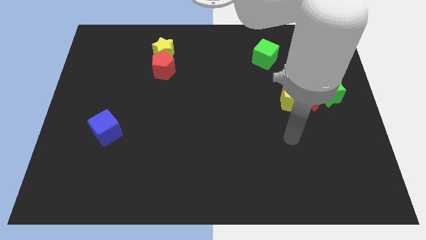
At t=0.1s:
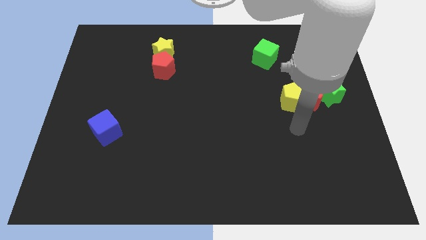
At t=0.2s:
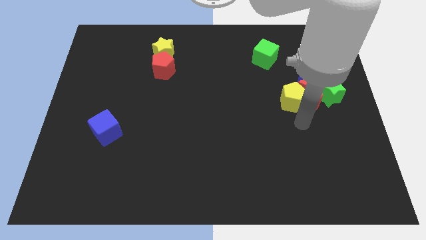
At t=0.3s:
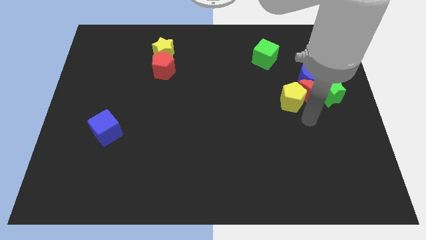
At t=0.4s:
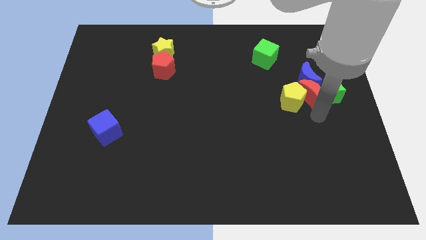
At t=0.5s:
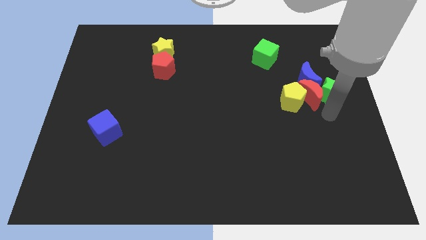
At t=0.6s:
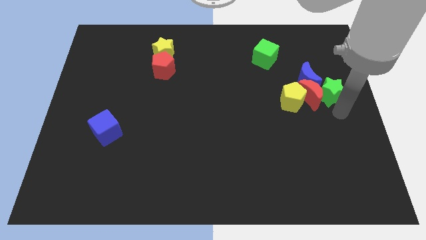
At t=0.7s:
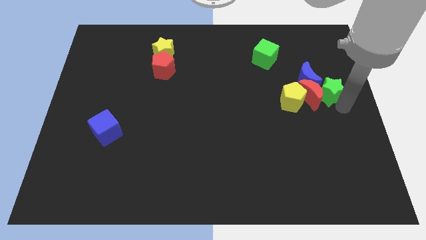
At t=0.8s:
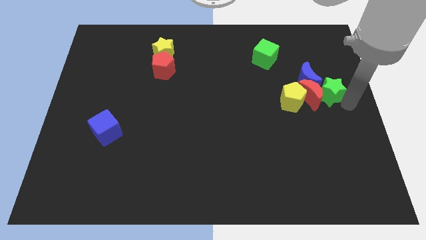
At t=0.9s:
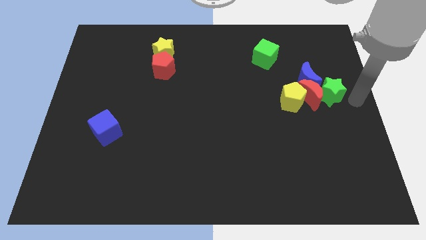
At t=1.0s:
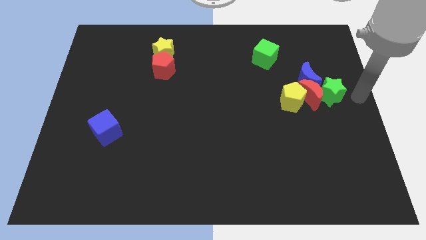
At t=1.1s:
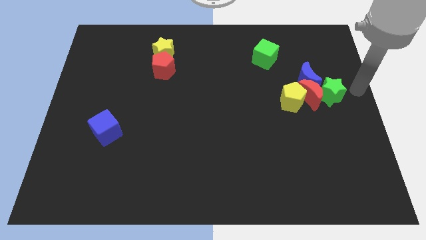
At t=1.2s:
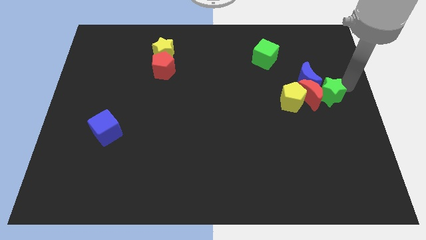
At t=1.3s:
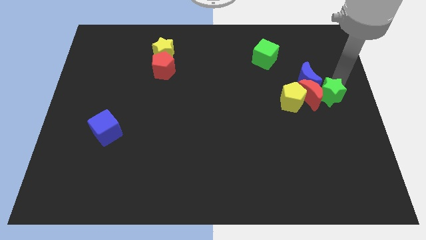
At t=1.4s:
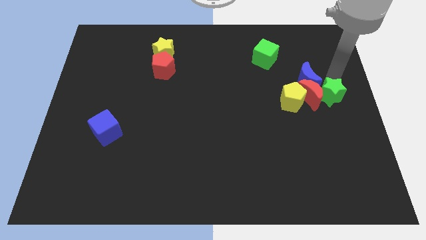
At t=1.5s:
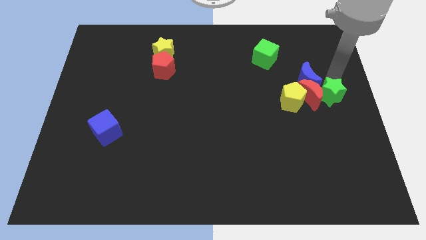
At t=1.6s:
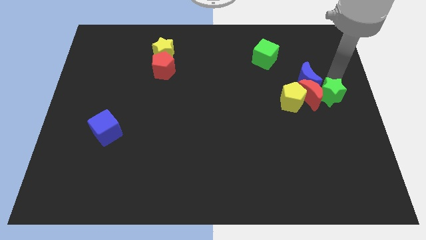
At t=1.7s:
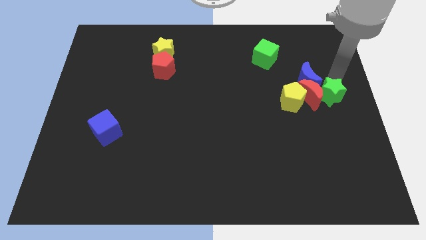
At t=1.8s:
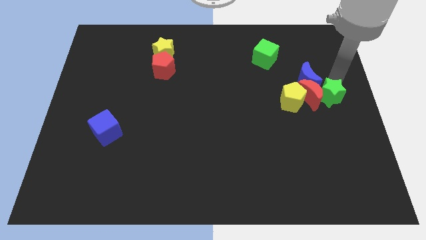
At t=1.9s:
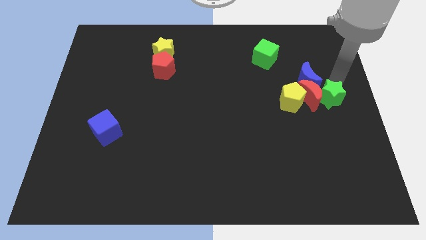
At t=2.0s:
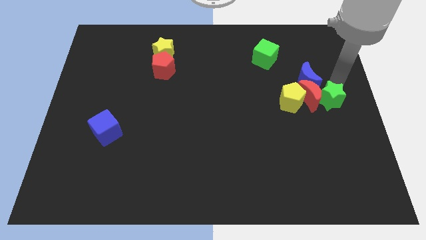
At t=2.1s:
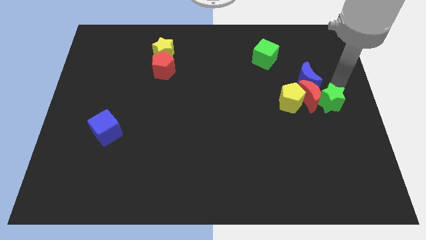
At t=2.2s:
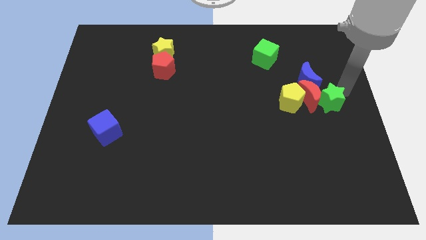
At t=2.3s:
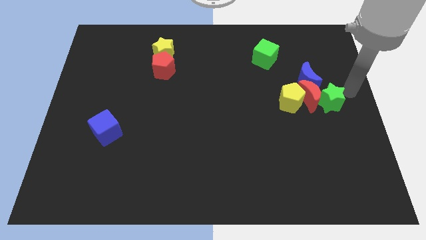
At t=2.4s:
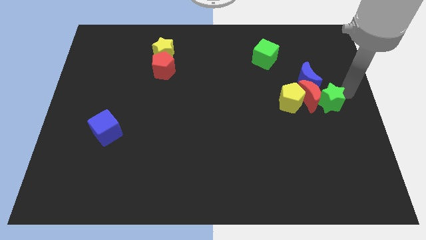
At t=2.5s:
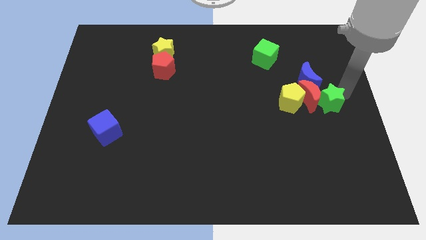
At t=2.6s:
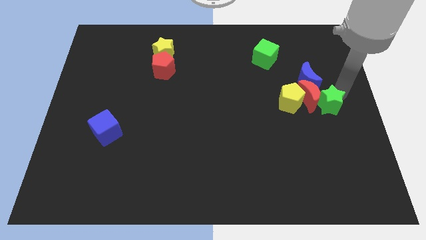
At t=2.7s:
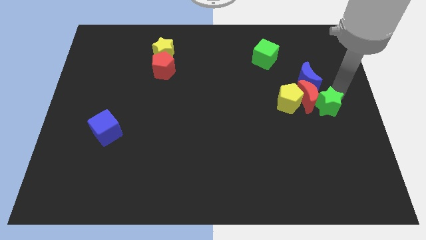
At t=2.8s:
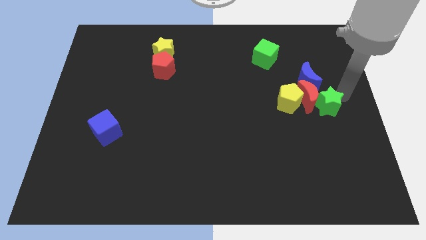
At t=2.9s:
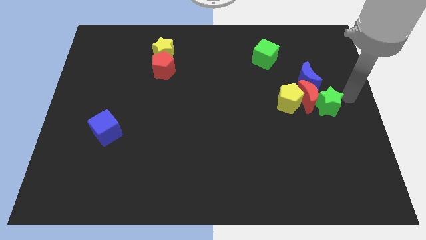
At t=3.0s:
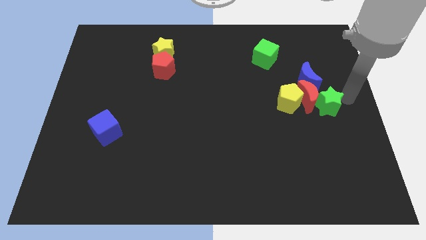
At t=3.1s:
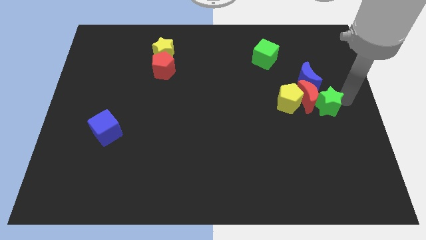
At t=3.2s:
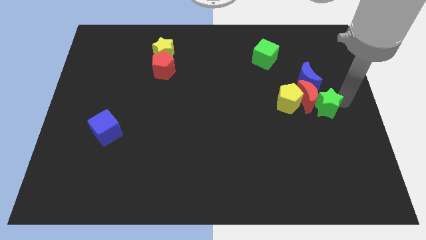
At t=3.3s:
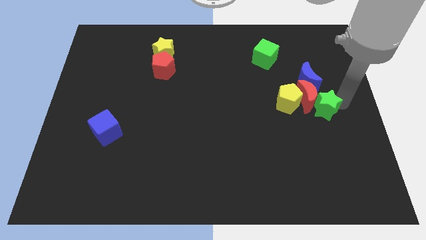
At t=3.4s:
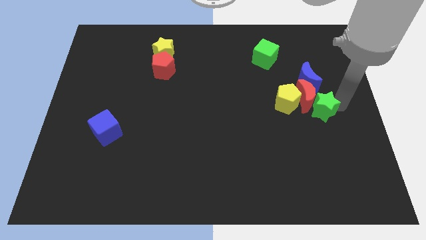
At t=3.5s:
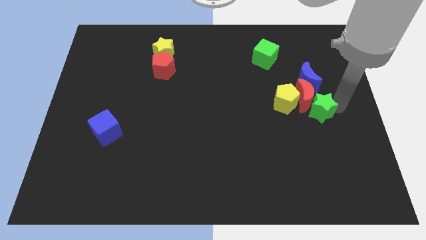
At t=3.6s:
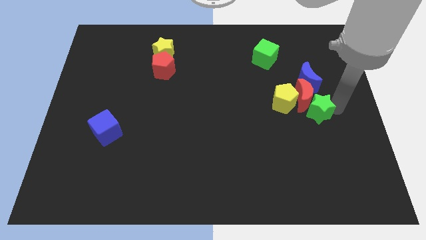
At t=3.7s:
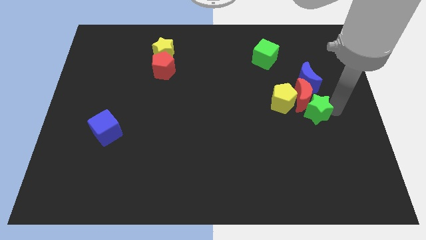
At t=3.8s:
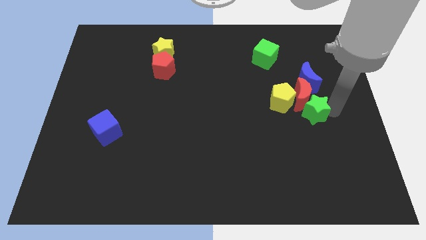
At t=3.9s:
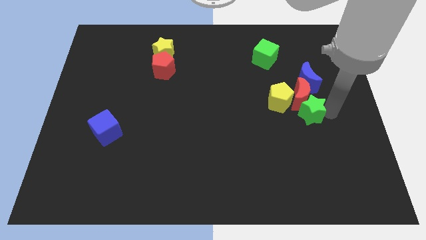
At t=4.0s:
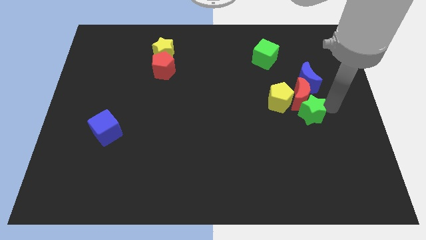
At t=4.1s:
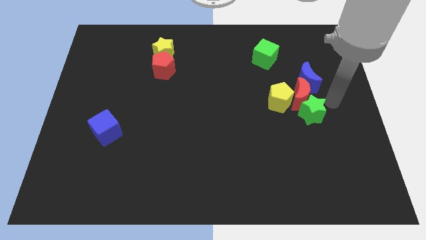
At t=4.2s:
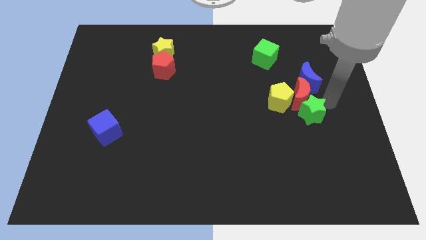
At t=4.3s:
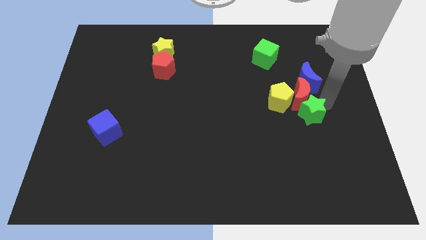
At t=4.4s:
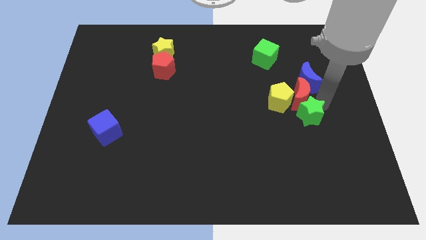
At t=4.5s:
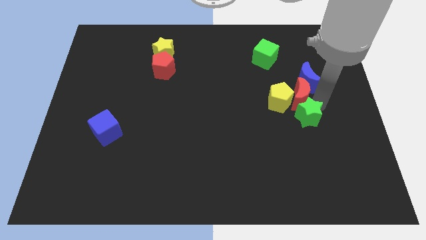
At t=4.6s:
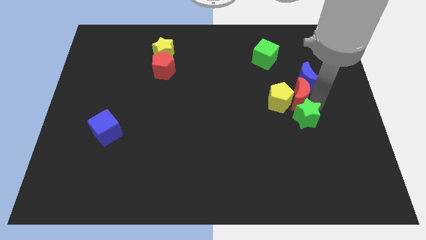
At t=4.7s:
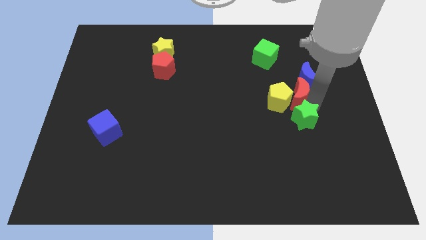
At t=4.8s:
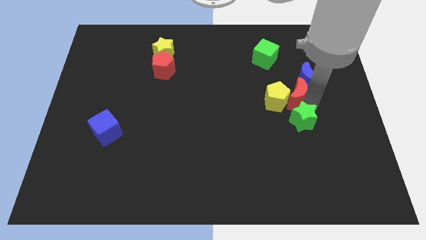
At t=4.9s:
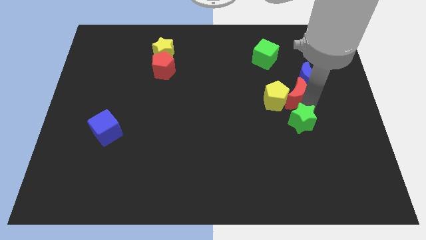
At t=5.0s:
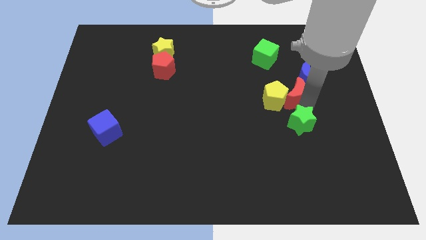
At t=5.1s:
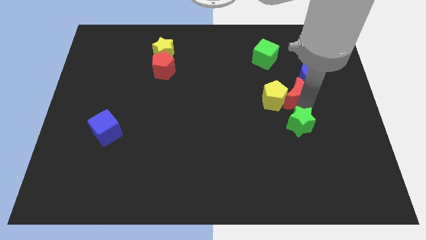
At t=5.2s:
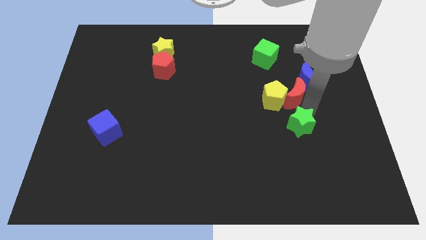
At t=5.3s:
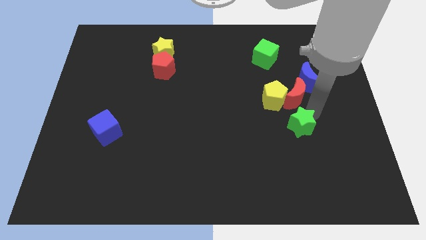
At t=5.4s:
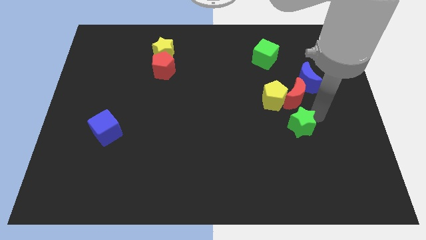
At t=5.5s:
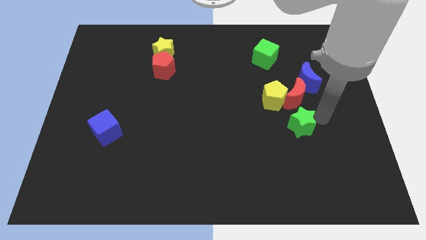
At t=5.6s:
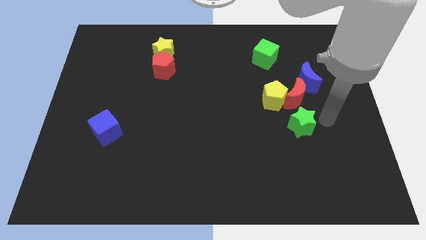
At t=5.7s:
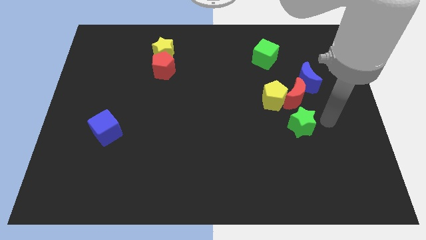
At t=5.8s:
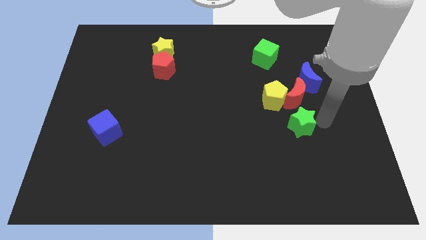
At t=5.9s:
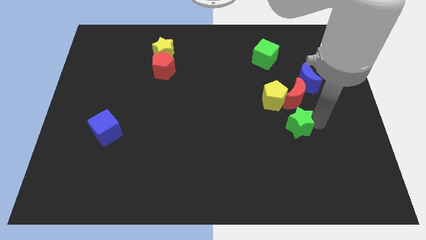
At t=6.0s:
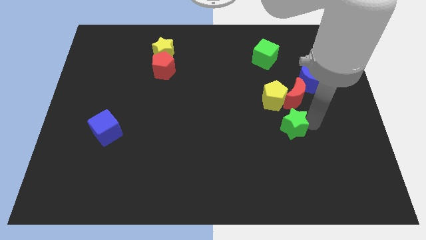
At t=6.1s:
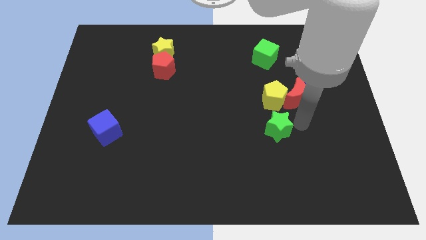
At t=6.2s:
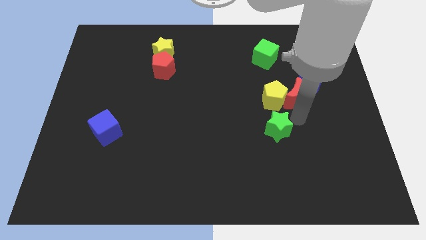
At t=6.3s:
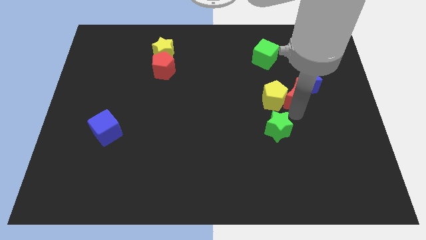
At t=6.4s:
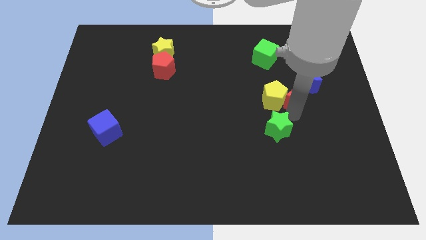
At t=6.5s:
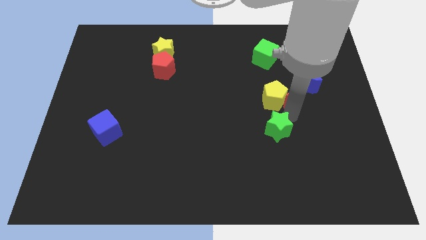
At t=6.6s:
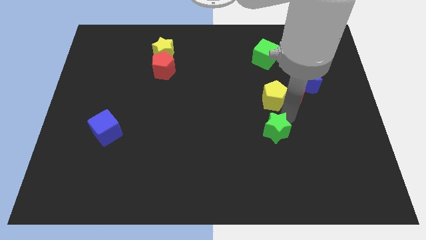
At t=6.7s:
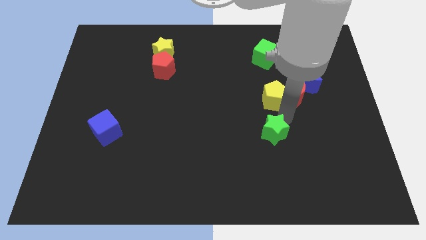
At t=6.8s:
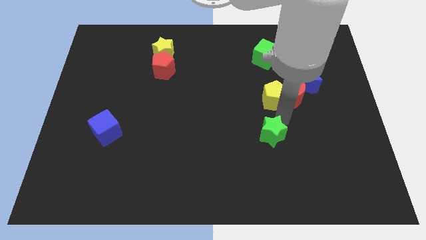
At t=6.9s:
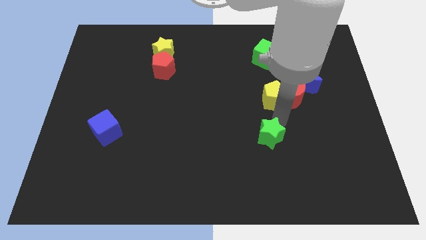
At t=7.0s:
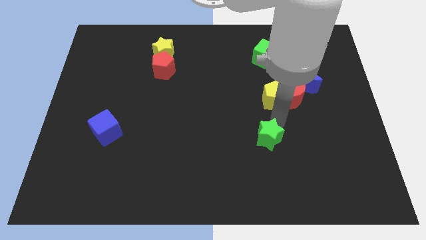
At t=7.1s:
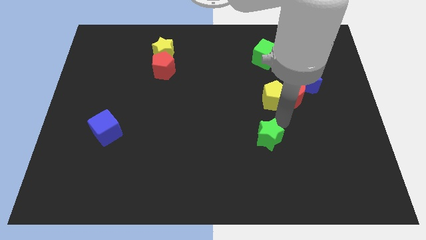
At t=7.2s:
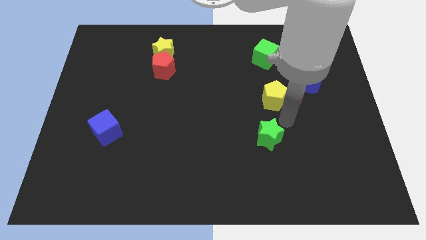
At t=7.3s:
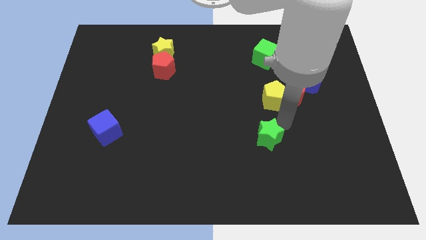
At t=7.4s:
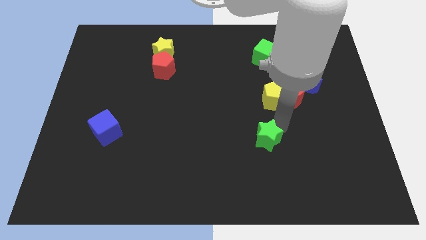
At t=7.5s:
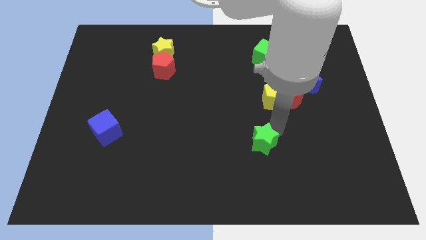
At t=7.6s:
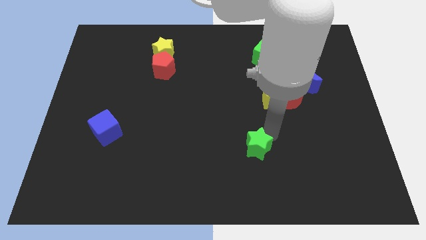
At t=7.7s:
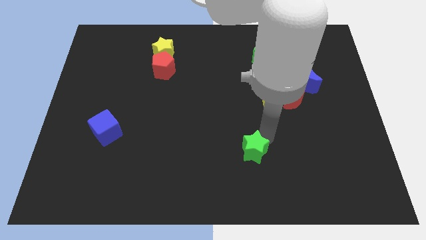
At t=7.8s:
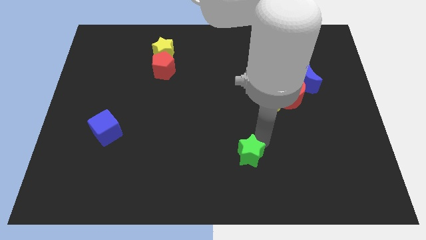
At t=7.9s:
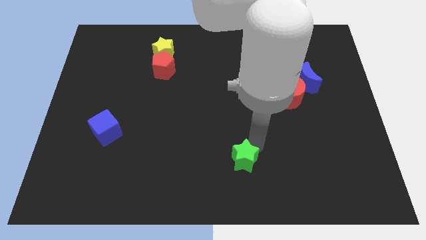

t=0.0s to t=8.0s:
put the green star to the bottom side
